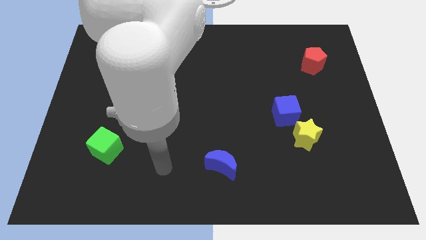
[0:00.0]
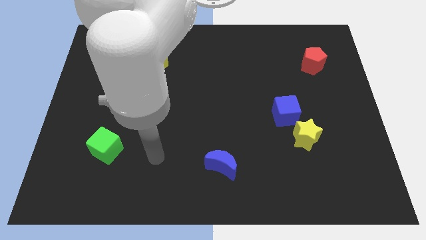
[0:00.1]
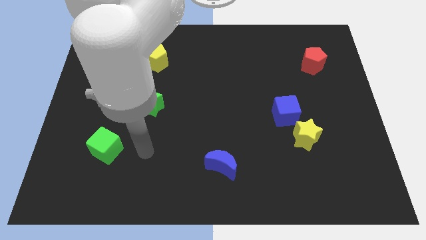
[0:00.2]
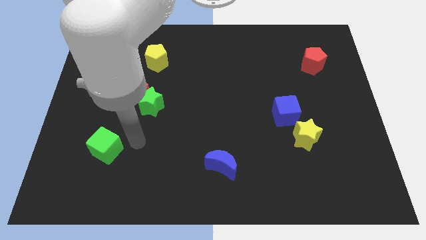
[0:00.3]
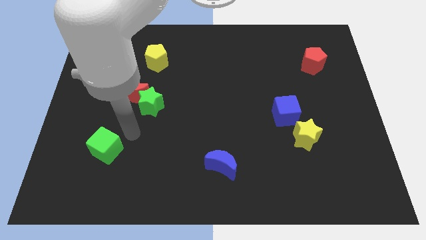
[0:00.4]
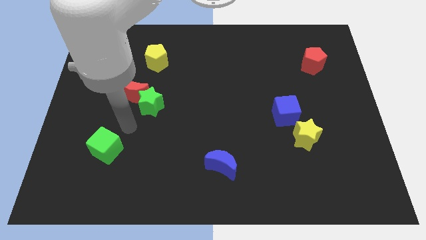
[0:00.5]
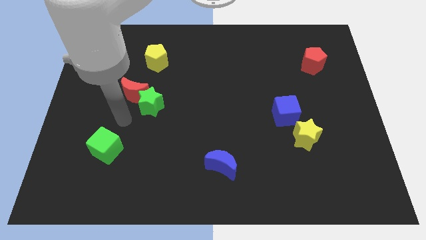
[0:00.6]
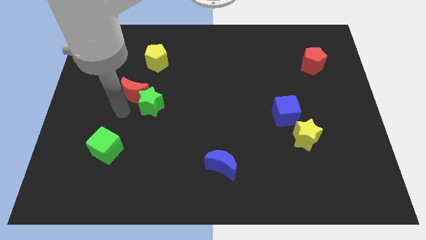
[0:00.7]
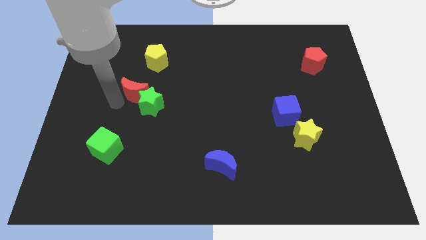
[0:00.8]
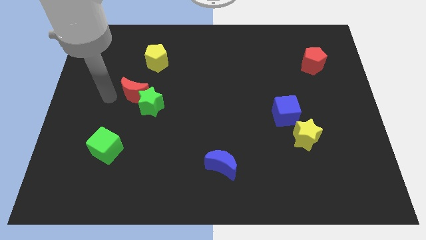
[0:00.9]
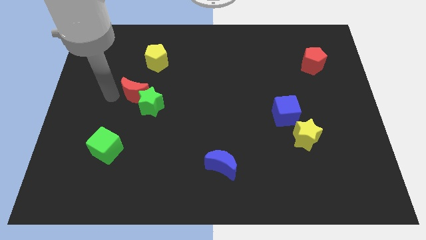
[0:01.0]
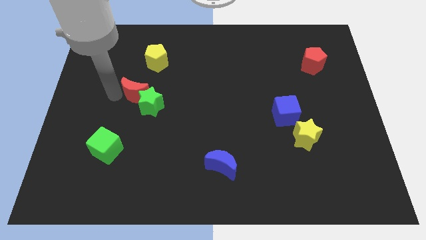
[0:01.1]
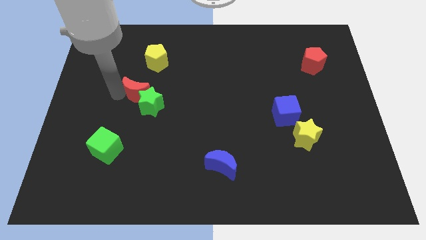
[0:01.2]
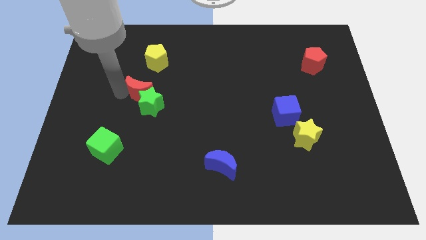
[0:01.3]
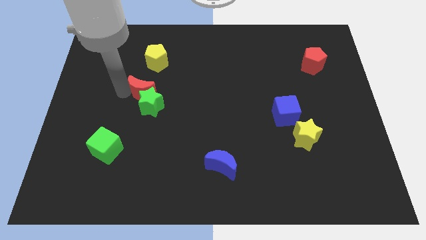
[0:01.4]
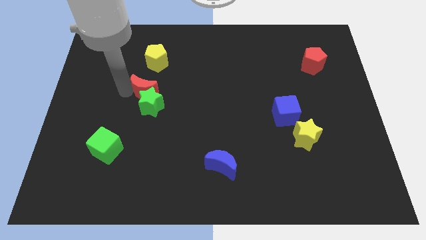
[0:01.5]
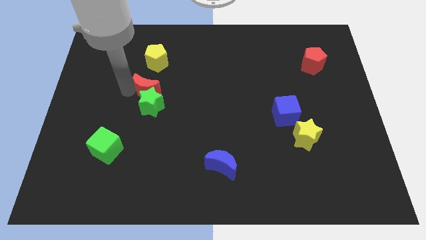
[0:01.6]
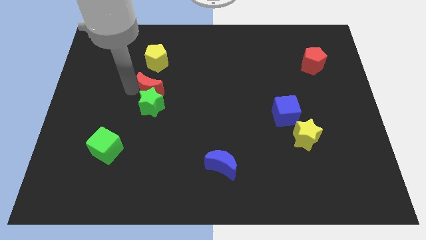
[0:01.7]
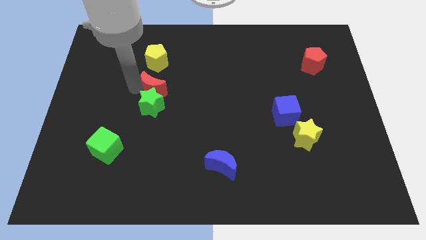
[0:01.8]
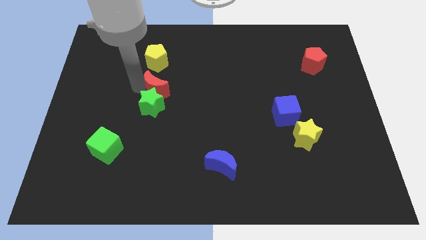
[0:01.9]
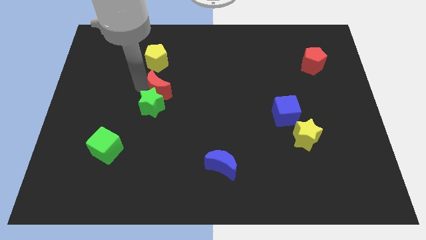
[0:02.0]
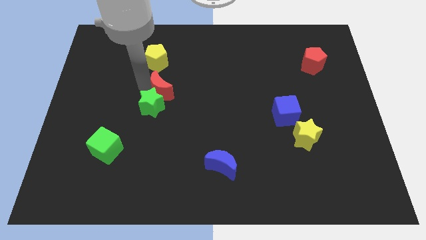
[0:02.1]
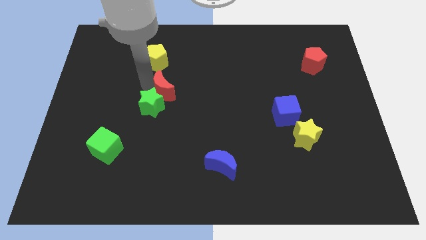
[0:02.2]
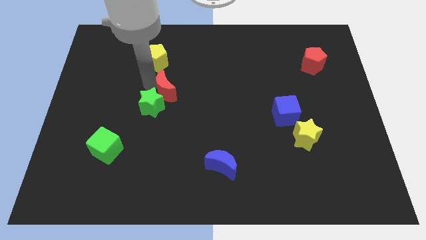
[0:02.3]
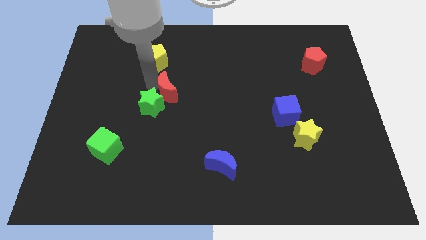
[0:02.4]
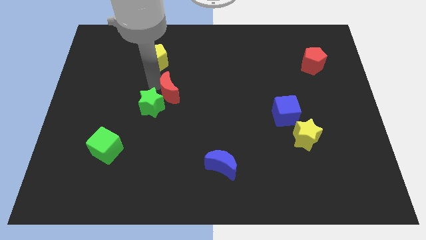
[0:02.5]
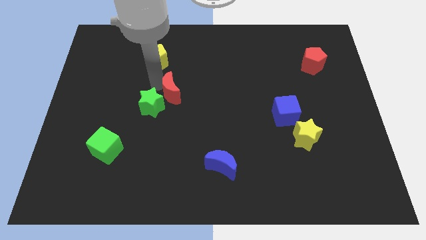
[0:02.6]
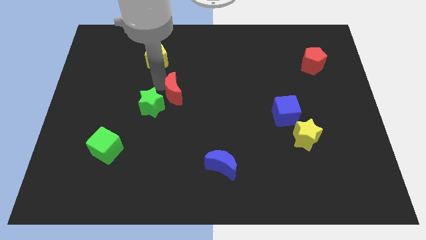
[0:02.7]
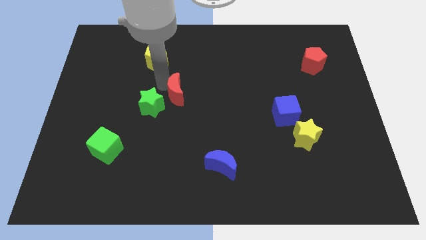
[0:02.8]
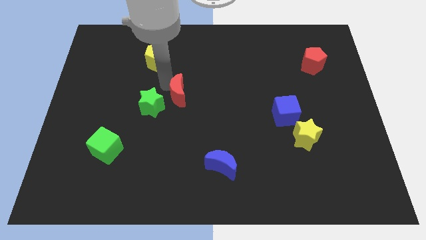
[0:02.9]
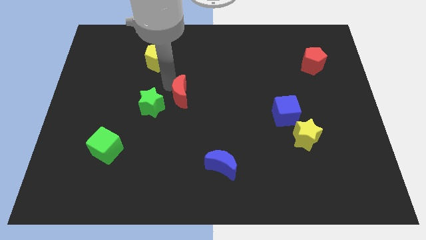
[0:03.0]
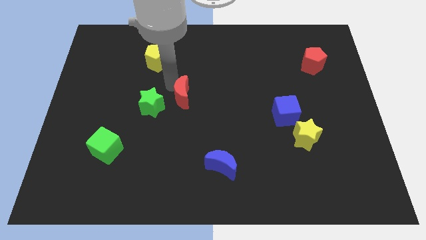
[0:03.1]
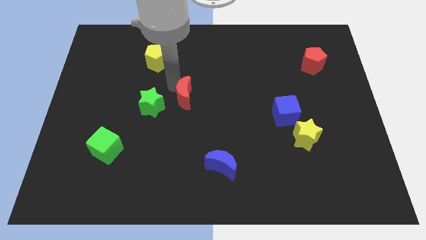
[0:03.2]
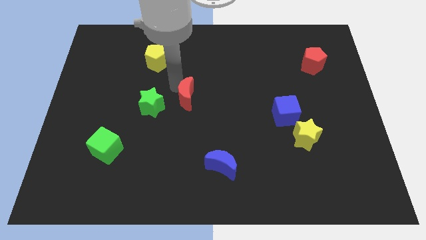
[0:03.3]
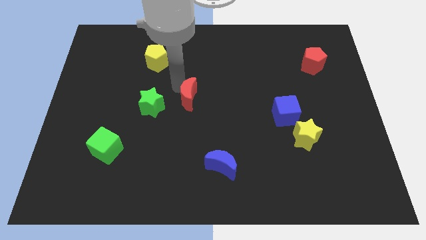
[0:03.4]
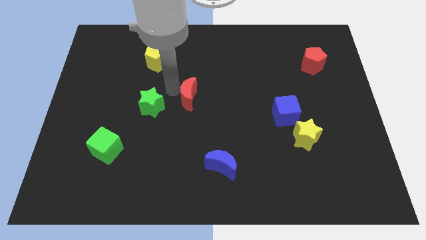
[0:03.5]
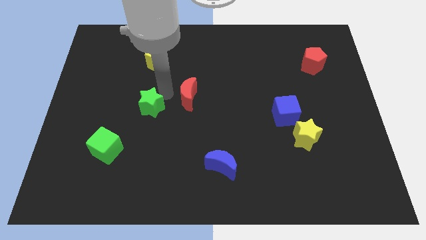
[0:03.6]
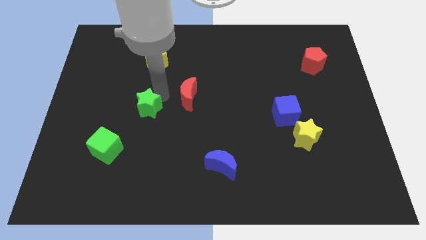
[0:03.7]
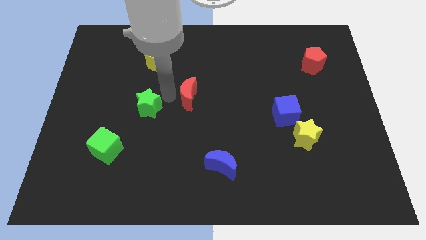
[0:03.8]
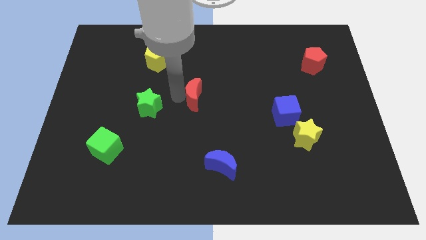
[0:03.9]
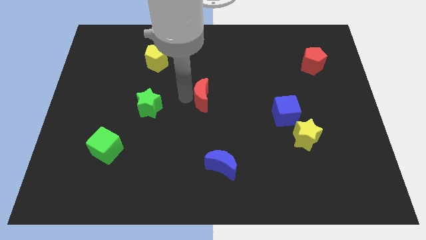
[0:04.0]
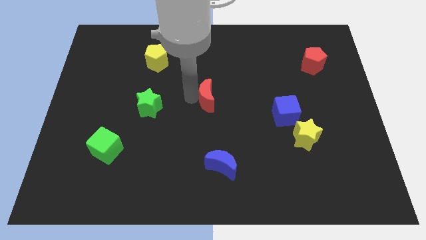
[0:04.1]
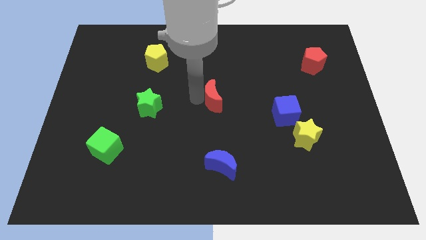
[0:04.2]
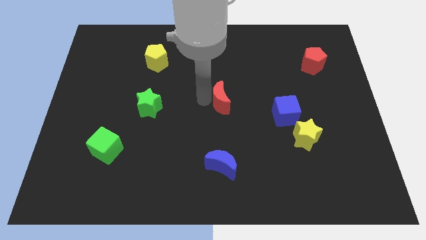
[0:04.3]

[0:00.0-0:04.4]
slide the red moon to the right

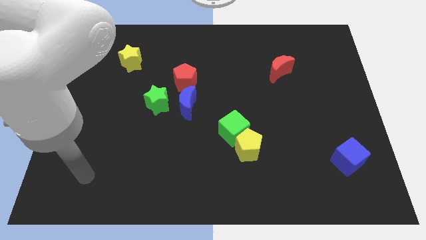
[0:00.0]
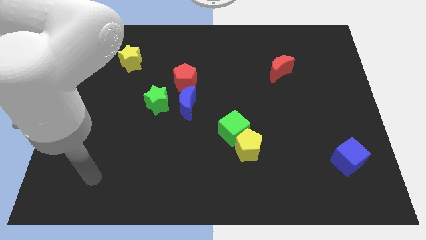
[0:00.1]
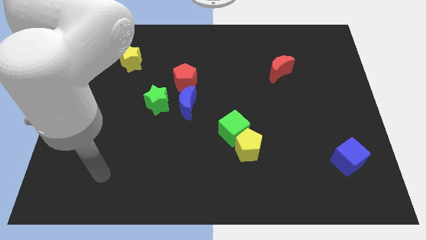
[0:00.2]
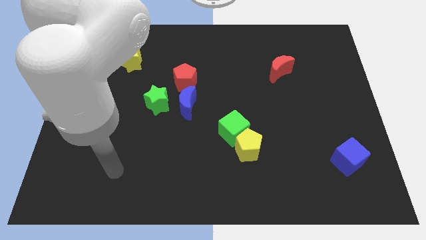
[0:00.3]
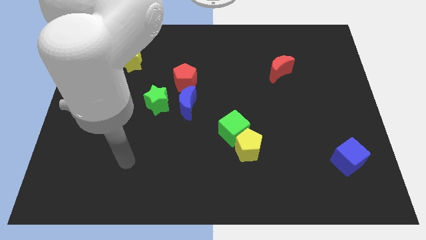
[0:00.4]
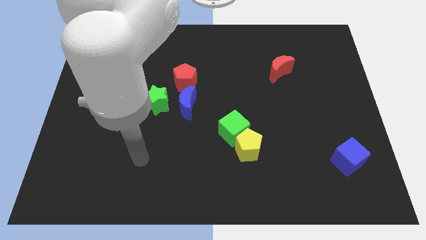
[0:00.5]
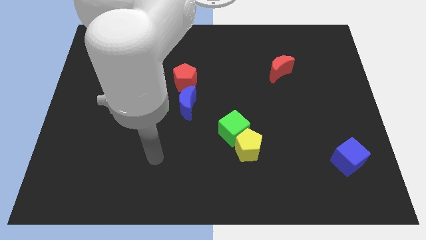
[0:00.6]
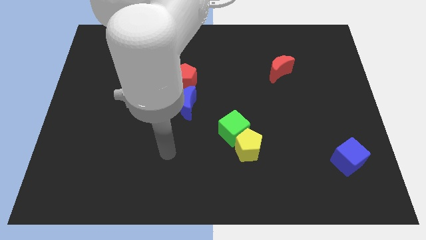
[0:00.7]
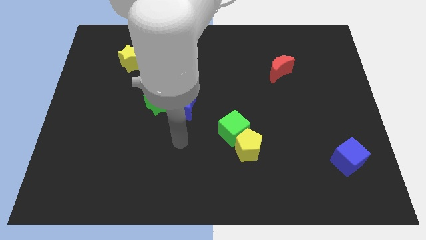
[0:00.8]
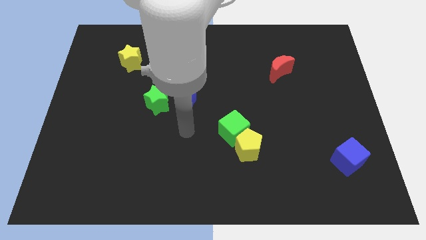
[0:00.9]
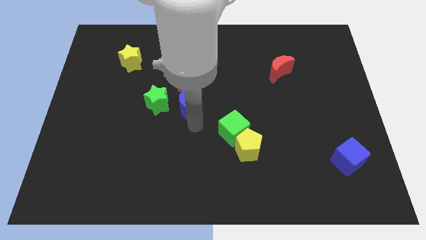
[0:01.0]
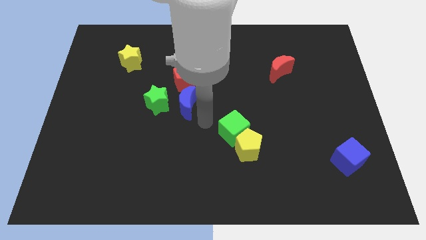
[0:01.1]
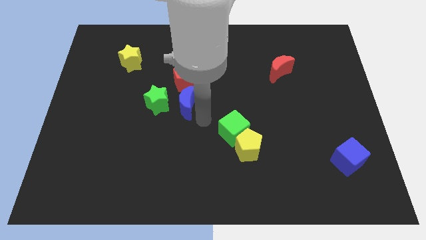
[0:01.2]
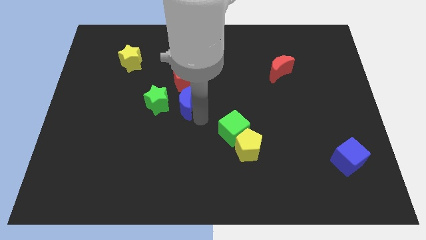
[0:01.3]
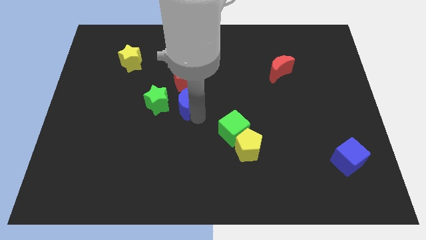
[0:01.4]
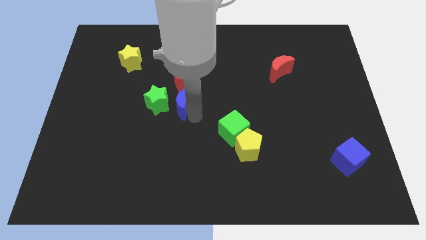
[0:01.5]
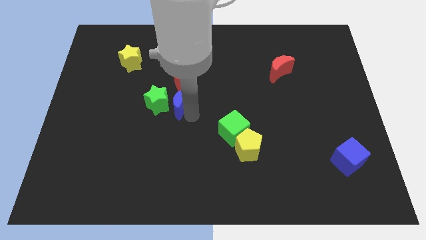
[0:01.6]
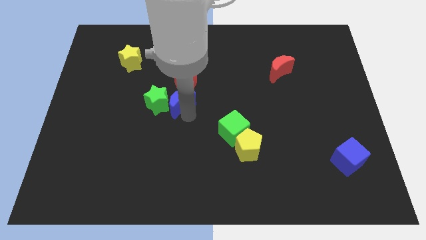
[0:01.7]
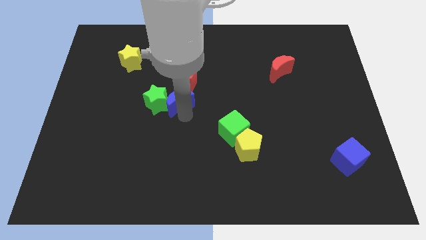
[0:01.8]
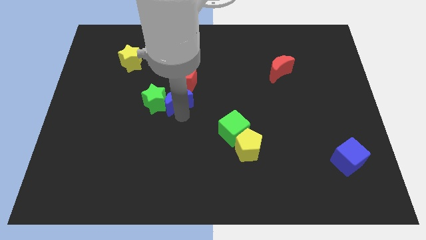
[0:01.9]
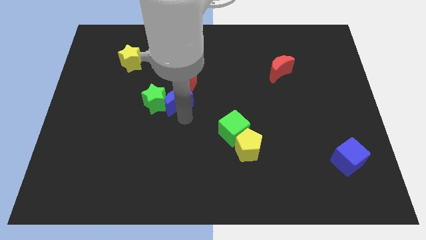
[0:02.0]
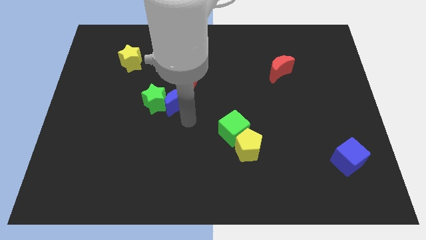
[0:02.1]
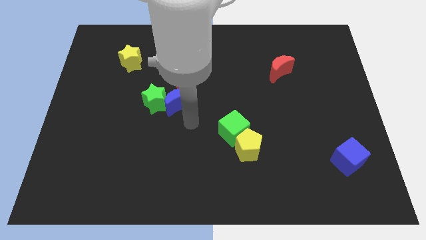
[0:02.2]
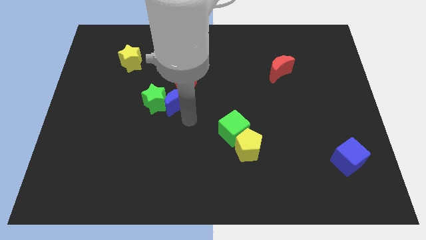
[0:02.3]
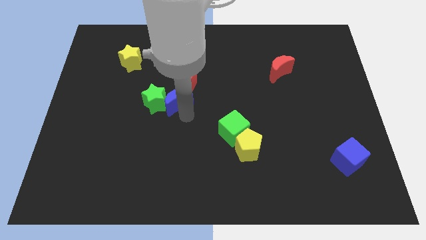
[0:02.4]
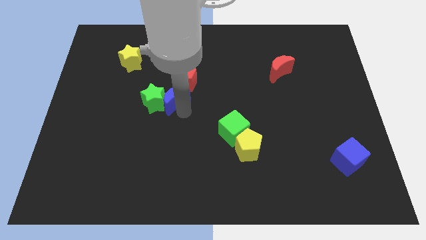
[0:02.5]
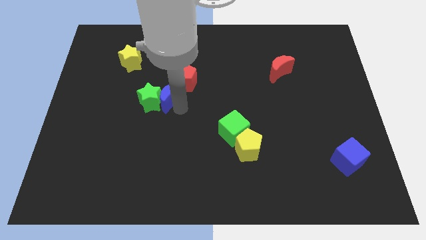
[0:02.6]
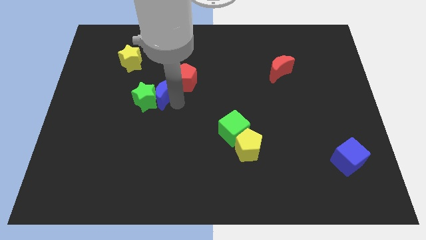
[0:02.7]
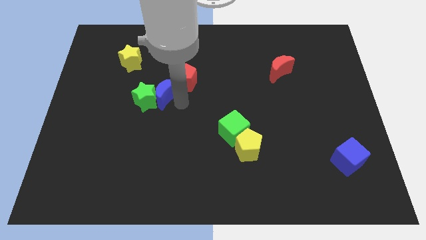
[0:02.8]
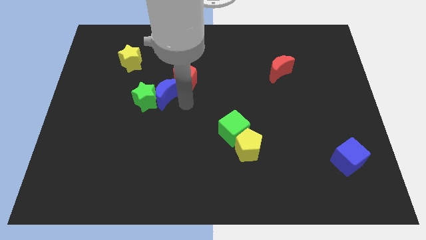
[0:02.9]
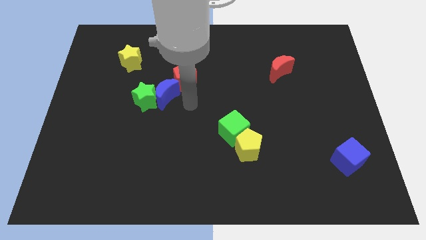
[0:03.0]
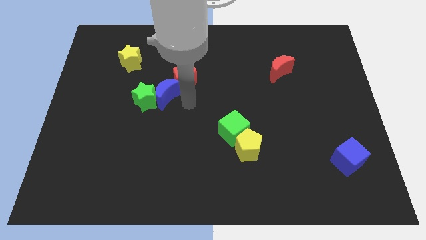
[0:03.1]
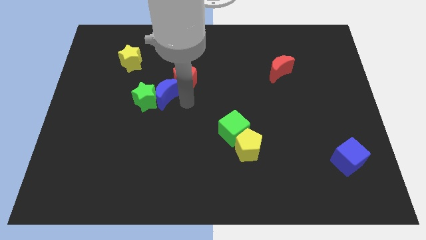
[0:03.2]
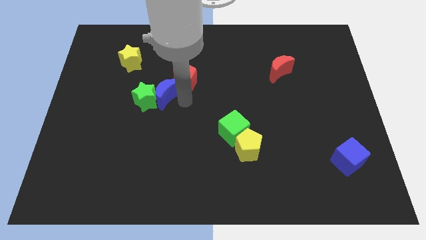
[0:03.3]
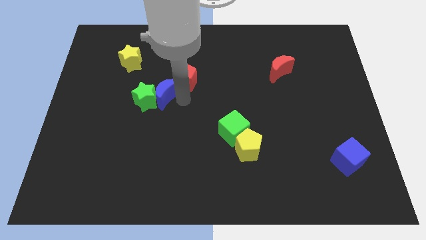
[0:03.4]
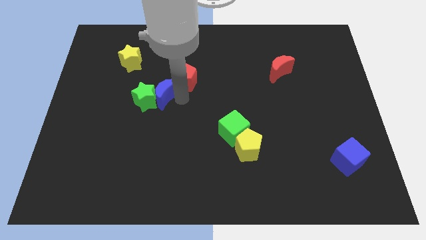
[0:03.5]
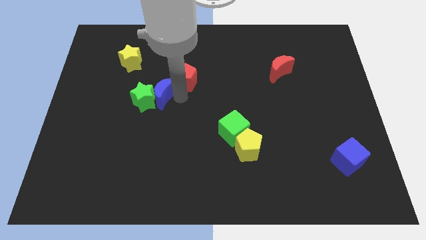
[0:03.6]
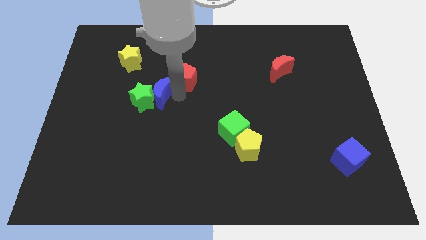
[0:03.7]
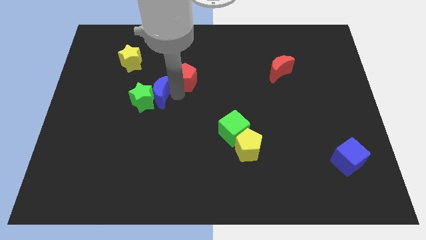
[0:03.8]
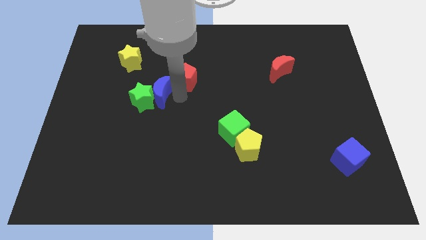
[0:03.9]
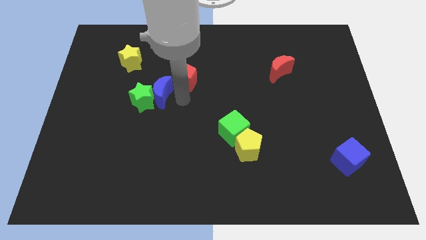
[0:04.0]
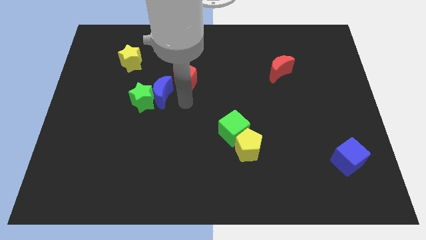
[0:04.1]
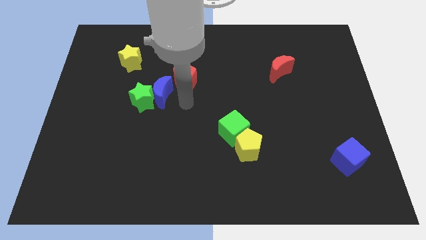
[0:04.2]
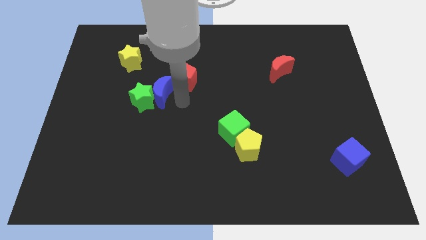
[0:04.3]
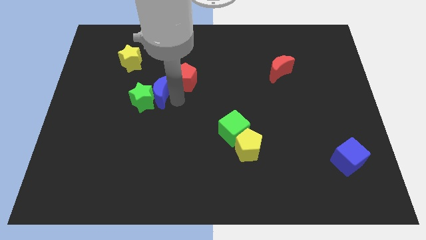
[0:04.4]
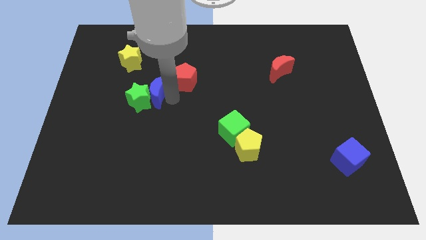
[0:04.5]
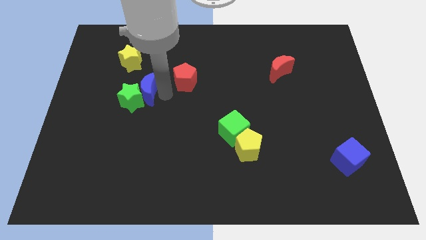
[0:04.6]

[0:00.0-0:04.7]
slightly move the blue moon to the left
